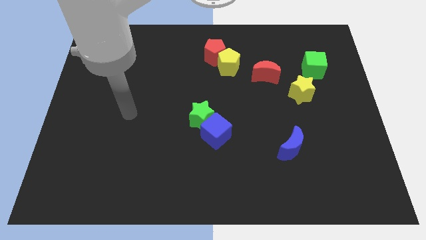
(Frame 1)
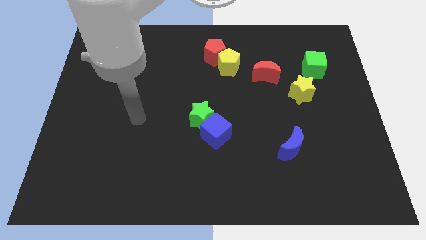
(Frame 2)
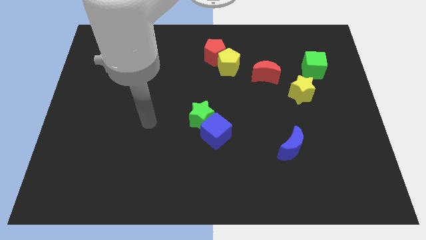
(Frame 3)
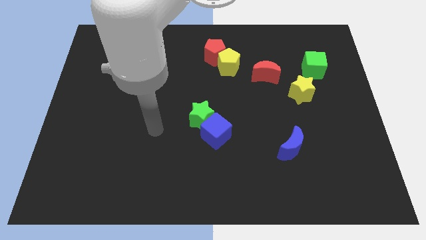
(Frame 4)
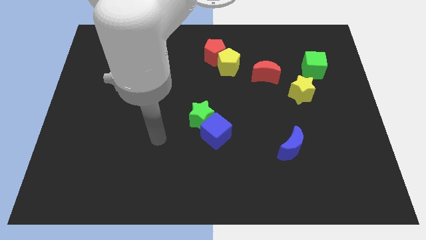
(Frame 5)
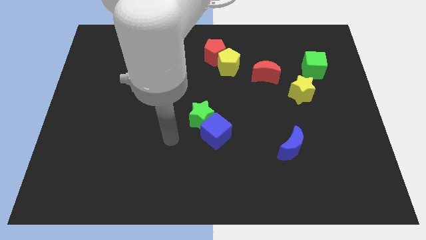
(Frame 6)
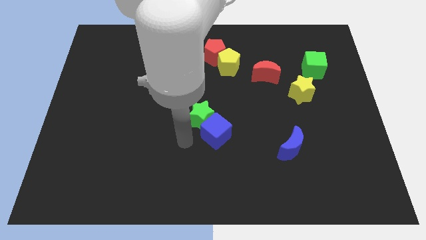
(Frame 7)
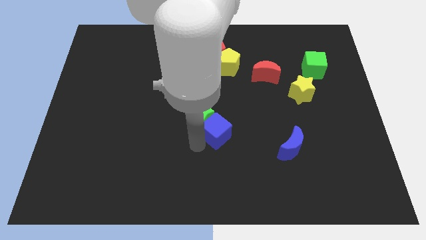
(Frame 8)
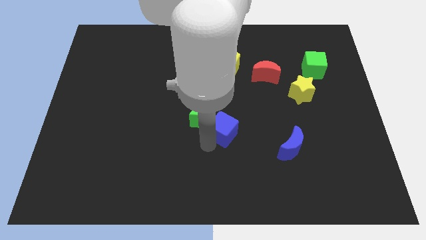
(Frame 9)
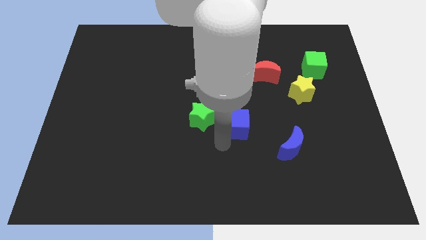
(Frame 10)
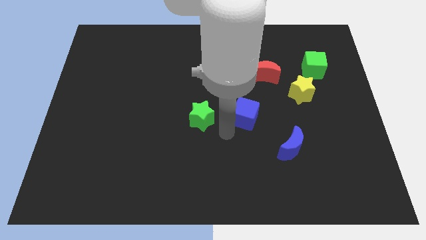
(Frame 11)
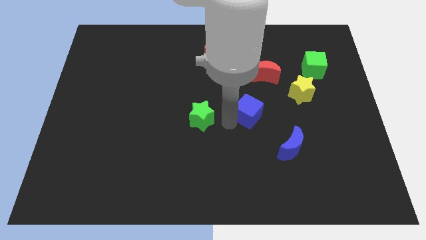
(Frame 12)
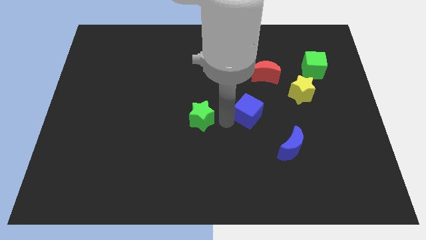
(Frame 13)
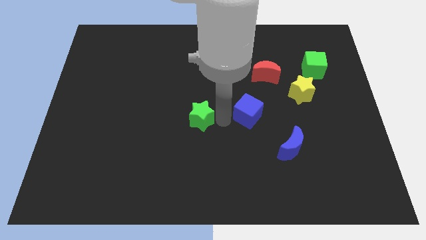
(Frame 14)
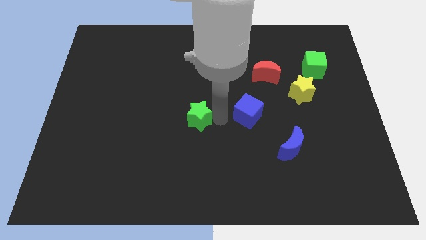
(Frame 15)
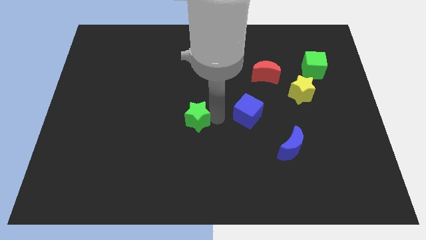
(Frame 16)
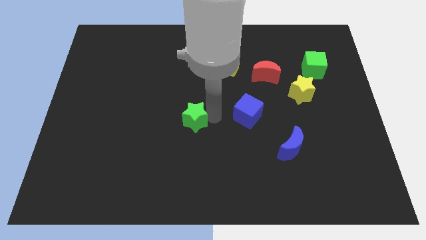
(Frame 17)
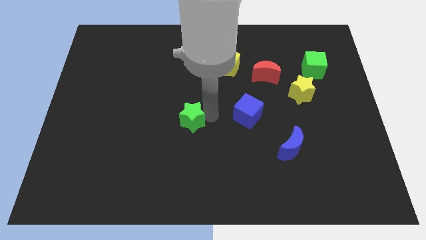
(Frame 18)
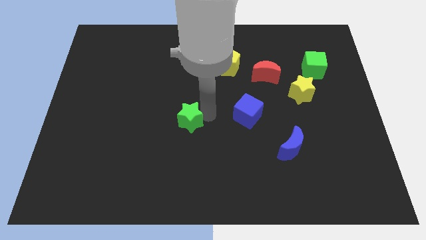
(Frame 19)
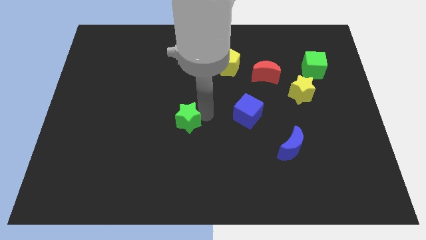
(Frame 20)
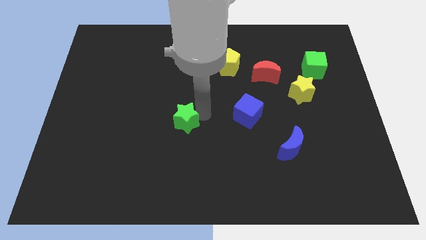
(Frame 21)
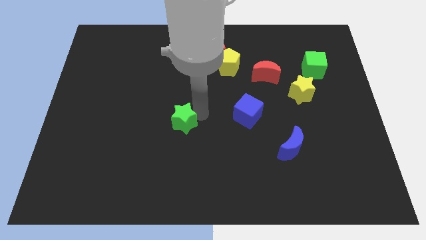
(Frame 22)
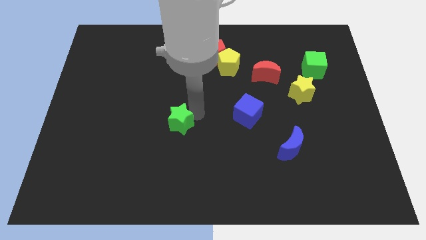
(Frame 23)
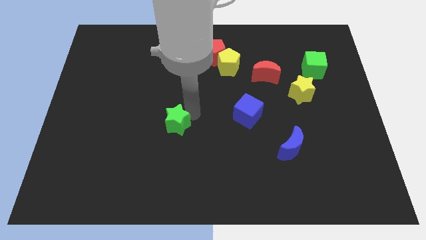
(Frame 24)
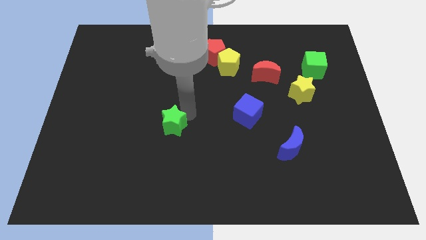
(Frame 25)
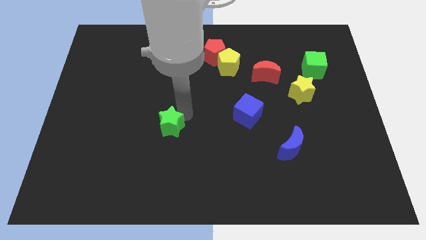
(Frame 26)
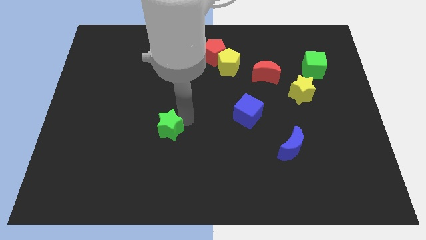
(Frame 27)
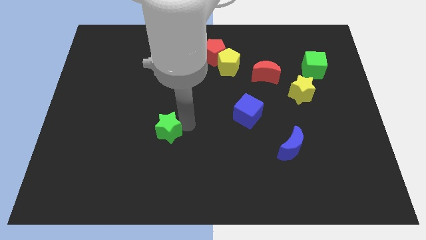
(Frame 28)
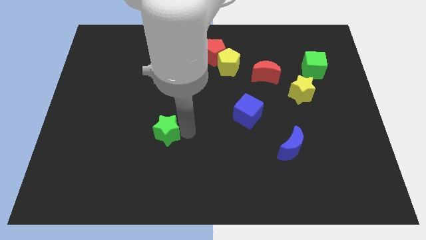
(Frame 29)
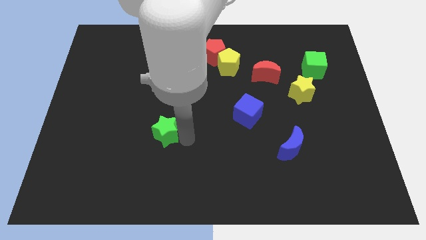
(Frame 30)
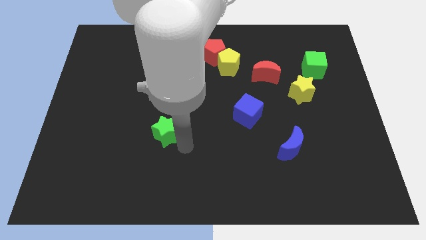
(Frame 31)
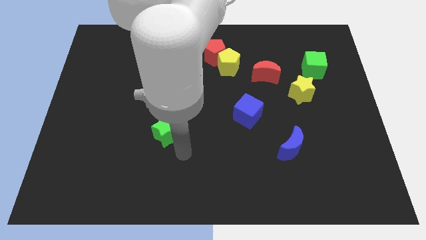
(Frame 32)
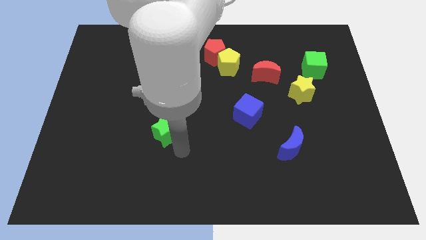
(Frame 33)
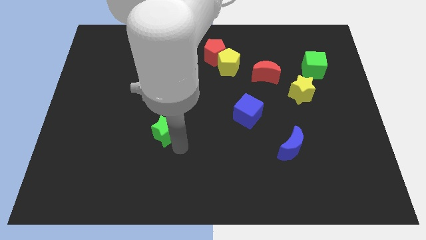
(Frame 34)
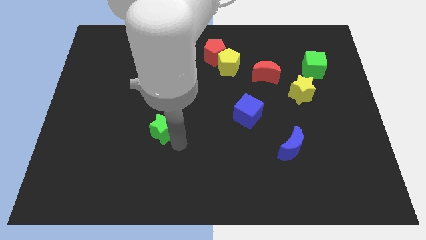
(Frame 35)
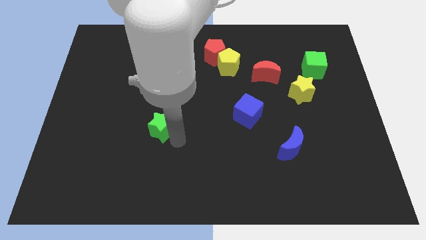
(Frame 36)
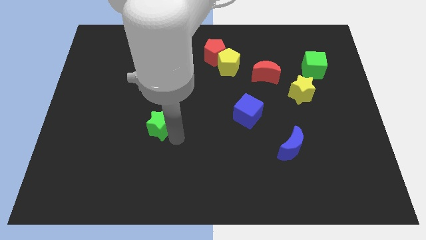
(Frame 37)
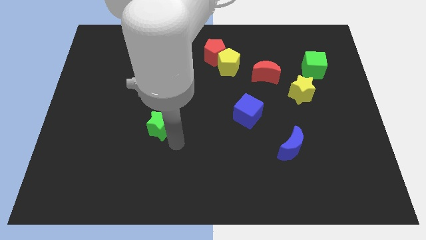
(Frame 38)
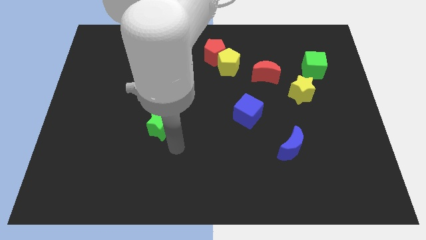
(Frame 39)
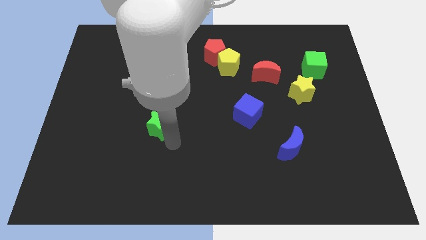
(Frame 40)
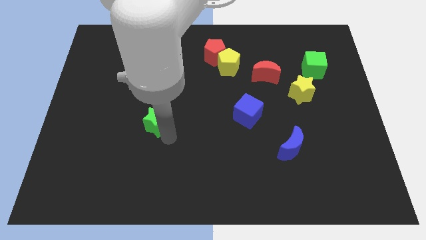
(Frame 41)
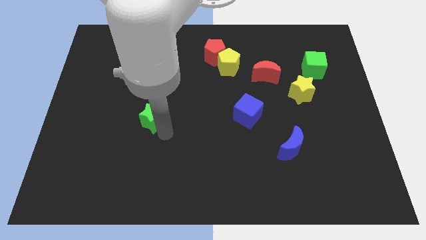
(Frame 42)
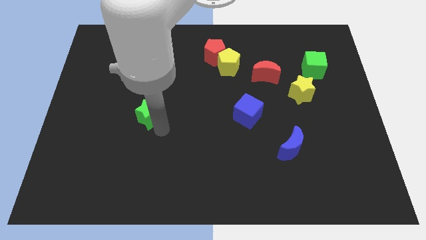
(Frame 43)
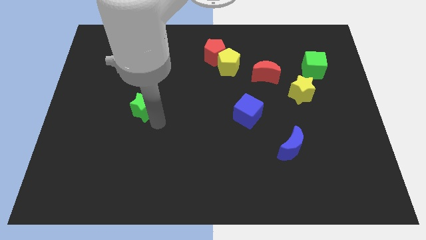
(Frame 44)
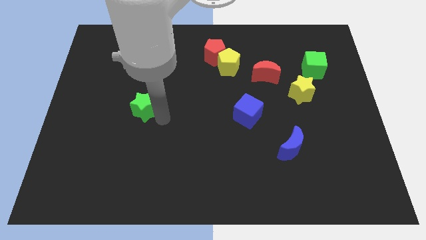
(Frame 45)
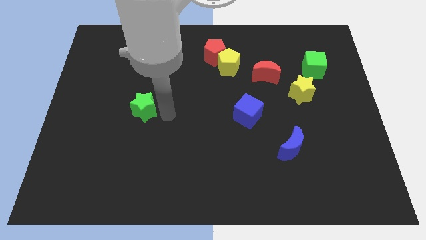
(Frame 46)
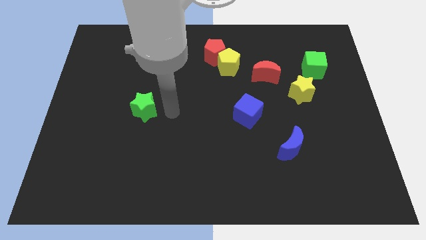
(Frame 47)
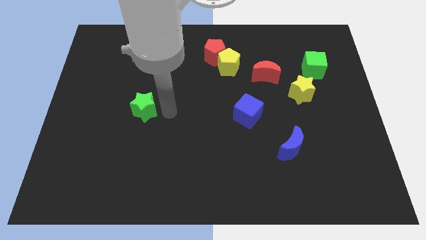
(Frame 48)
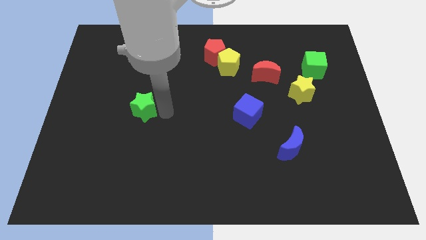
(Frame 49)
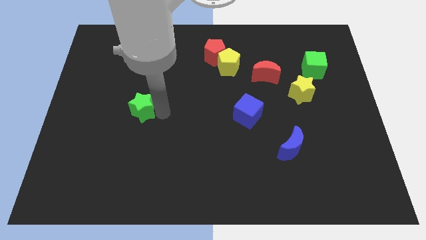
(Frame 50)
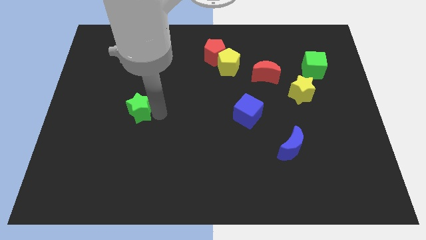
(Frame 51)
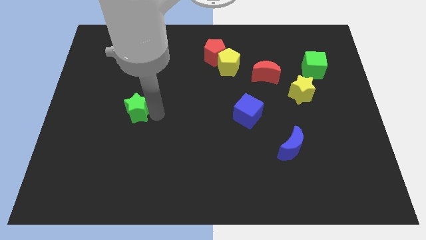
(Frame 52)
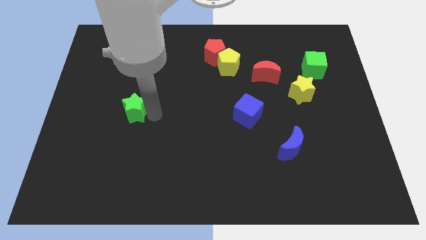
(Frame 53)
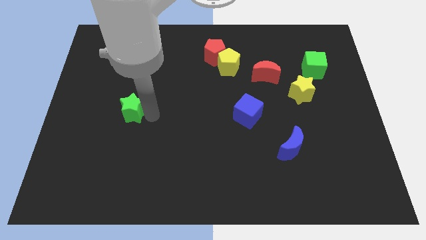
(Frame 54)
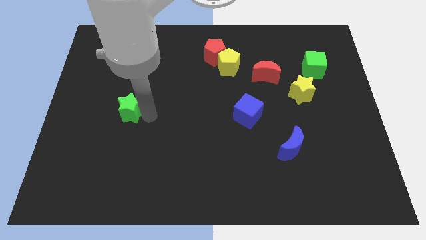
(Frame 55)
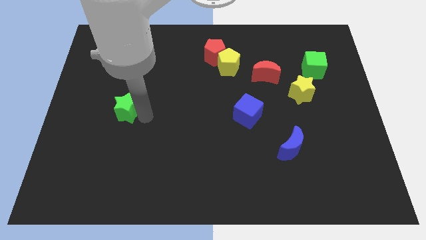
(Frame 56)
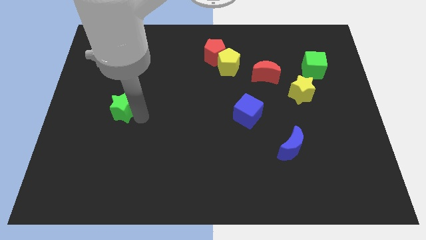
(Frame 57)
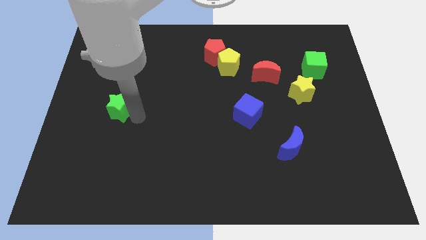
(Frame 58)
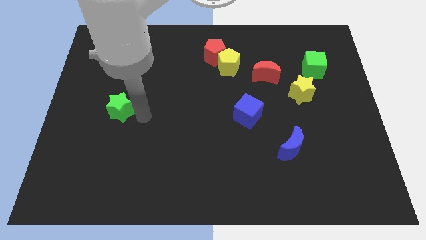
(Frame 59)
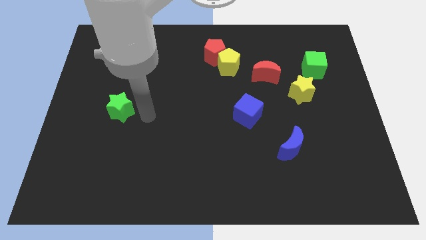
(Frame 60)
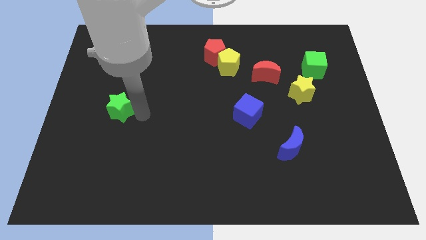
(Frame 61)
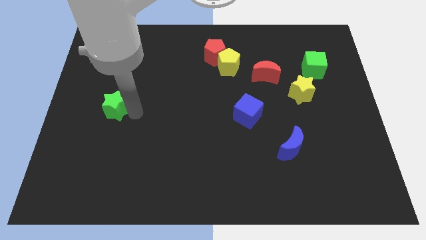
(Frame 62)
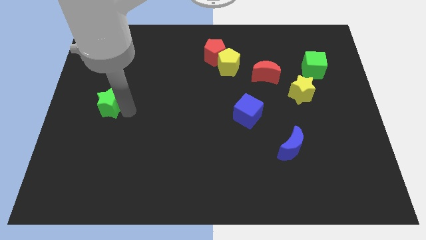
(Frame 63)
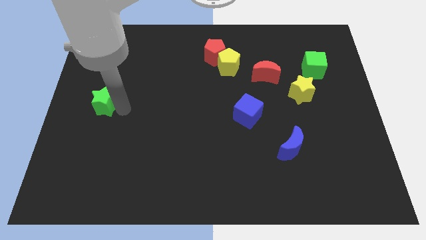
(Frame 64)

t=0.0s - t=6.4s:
put the green star to the left side

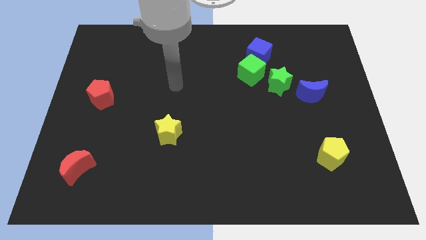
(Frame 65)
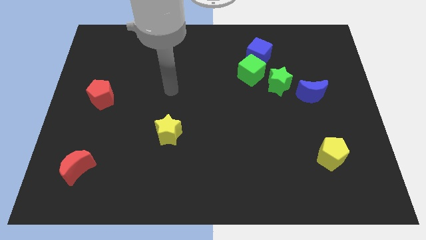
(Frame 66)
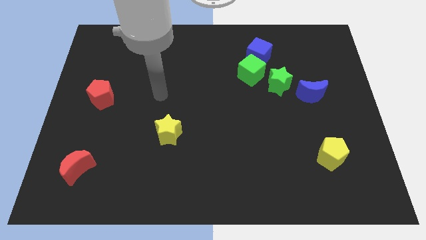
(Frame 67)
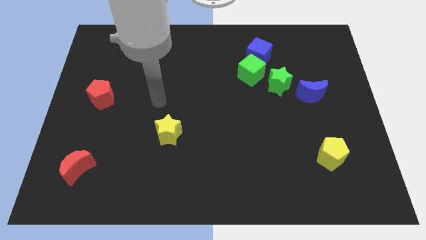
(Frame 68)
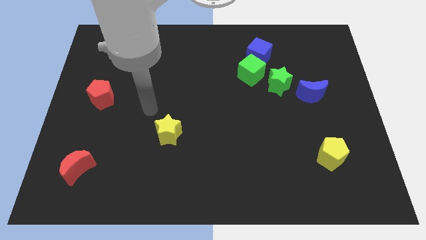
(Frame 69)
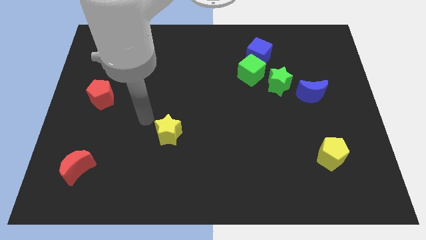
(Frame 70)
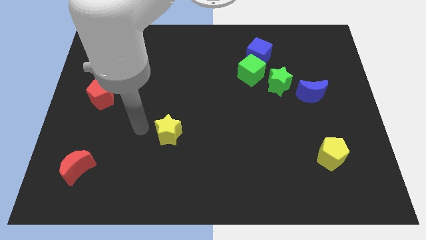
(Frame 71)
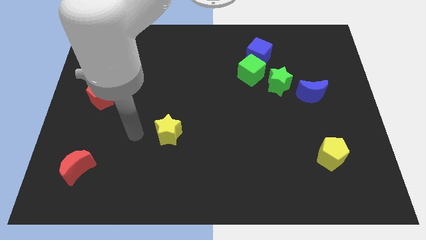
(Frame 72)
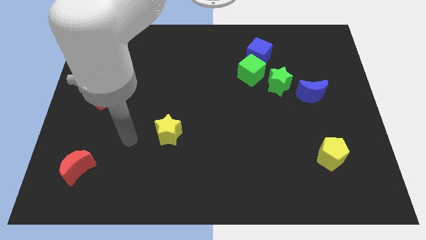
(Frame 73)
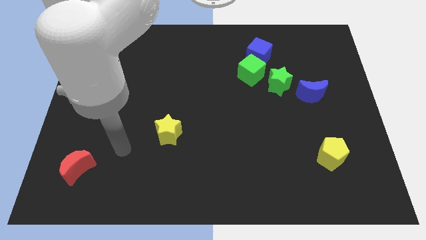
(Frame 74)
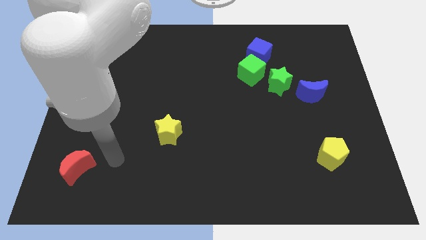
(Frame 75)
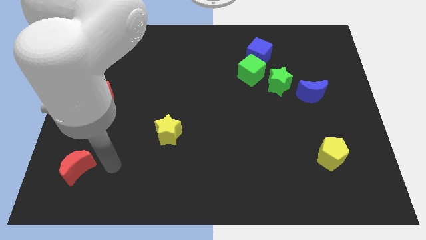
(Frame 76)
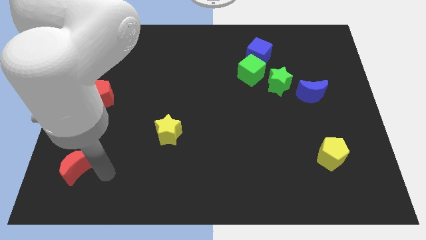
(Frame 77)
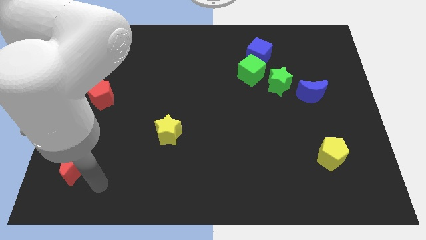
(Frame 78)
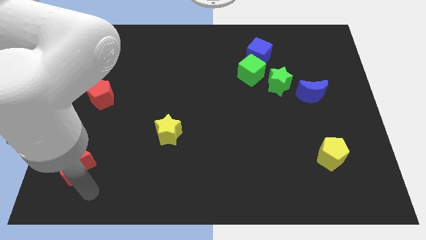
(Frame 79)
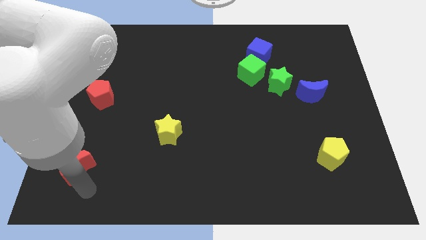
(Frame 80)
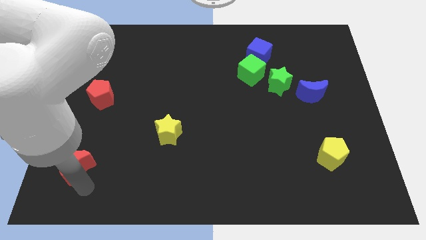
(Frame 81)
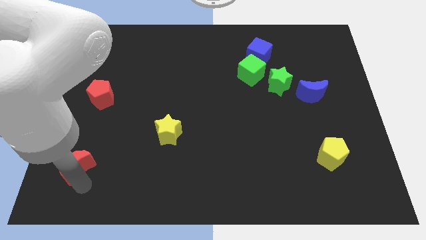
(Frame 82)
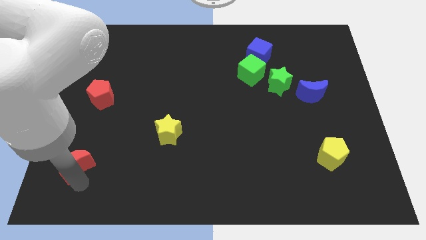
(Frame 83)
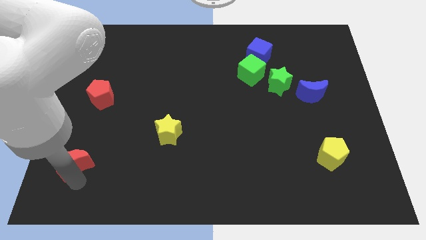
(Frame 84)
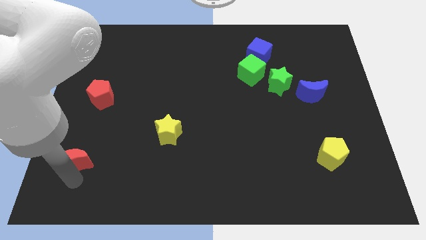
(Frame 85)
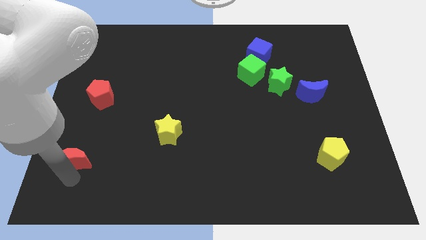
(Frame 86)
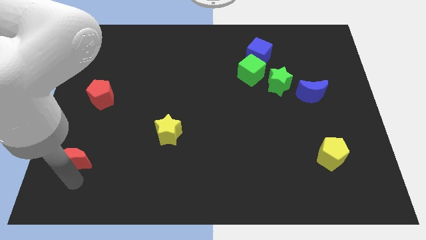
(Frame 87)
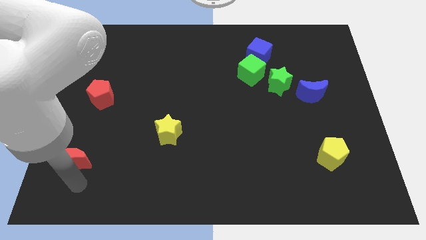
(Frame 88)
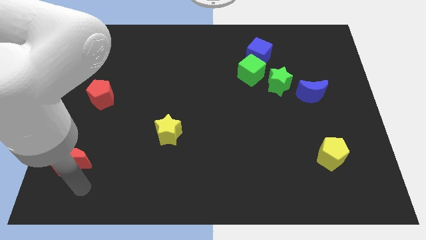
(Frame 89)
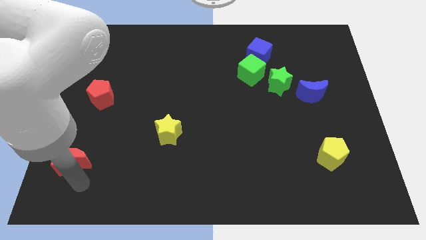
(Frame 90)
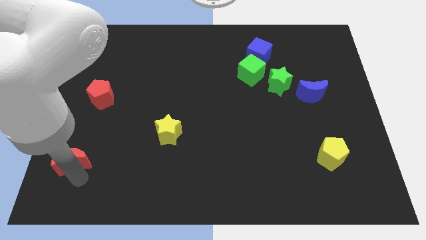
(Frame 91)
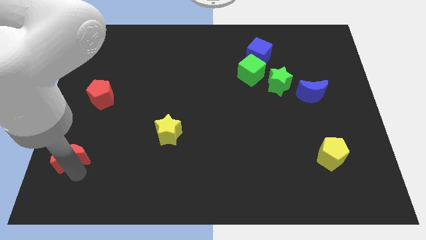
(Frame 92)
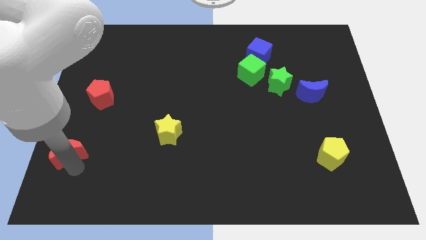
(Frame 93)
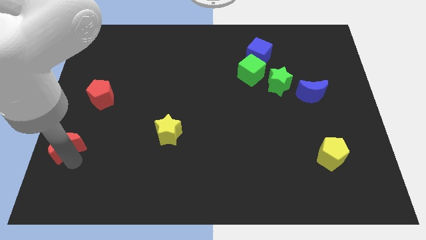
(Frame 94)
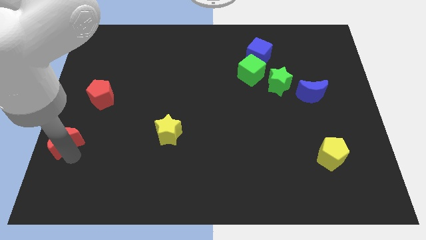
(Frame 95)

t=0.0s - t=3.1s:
put the red moon to the center left
